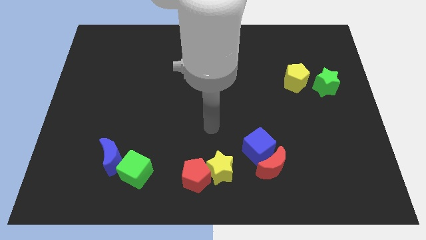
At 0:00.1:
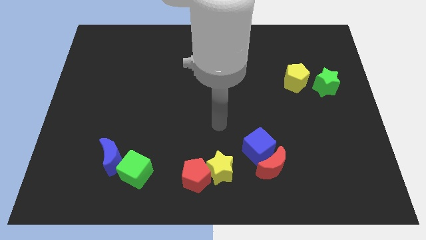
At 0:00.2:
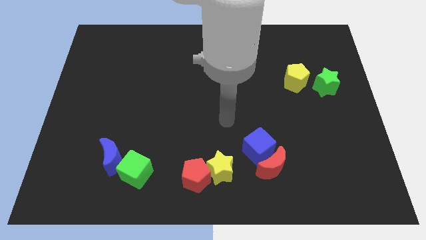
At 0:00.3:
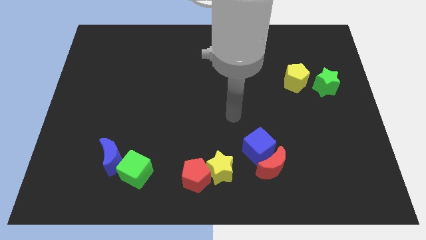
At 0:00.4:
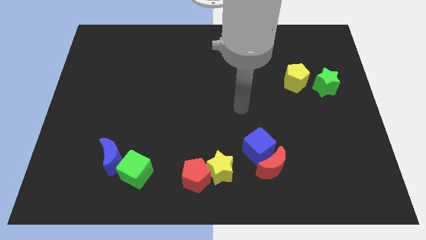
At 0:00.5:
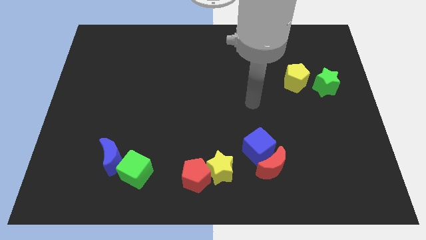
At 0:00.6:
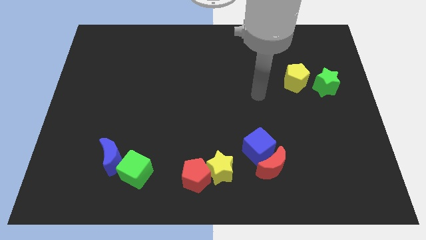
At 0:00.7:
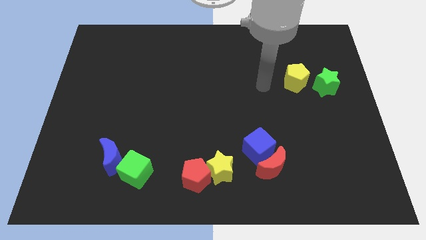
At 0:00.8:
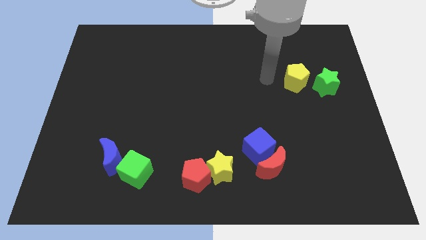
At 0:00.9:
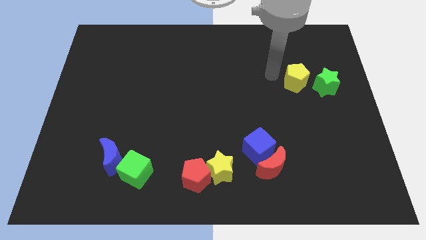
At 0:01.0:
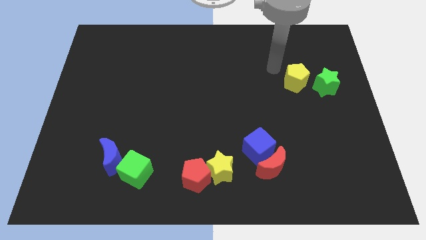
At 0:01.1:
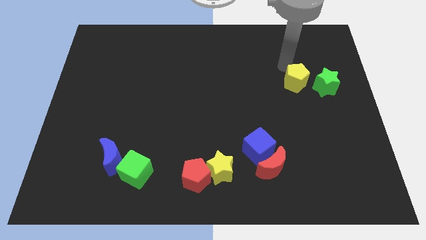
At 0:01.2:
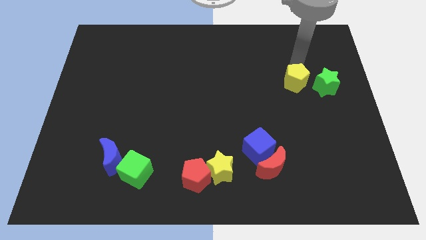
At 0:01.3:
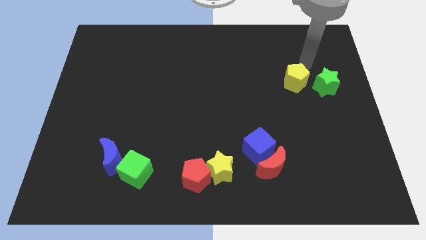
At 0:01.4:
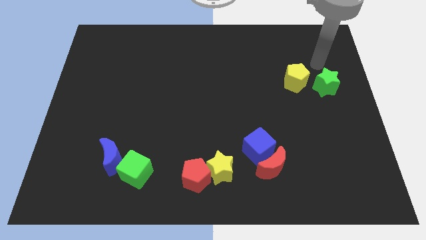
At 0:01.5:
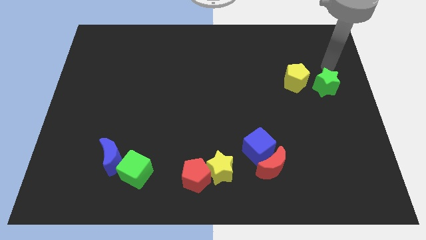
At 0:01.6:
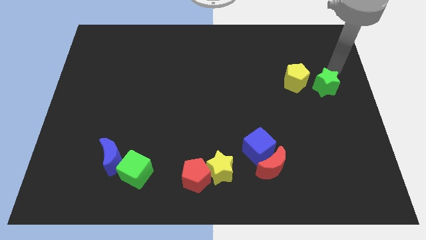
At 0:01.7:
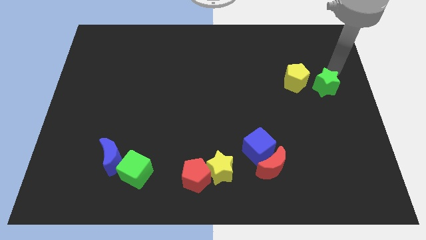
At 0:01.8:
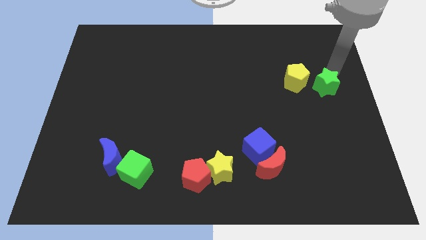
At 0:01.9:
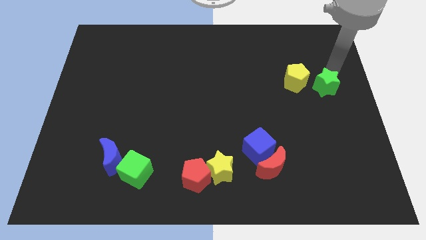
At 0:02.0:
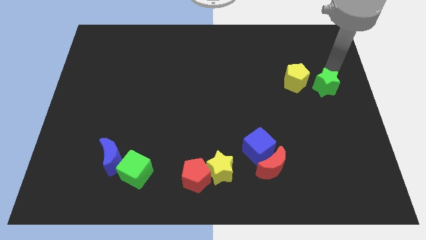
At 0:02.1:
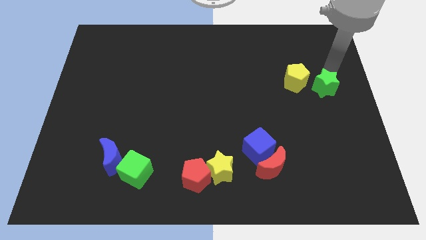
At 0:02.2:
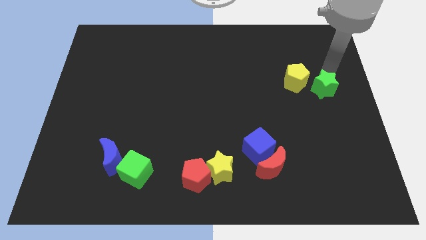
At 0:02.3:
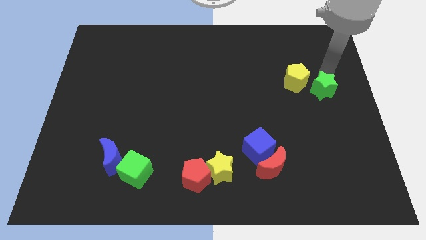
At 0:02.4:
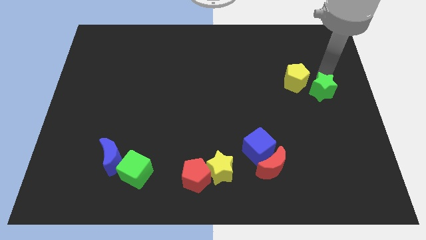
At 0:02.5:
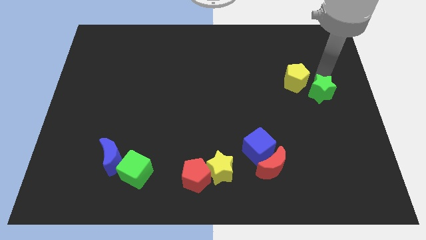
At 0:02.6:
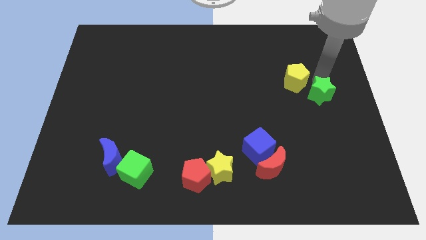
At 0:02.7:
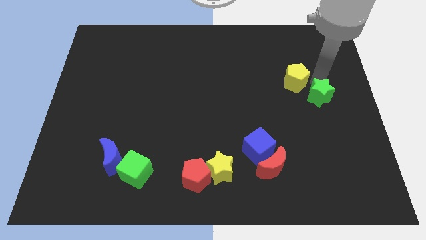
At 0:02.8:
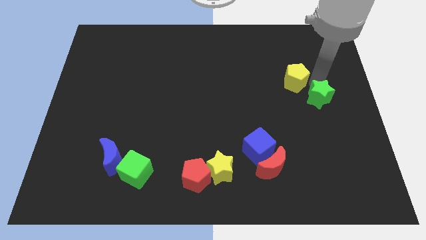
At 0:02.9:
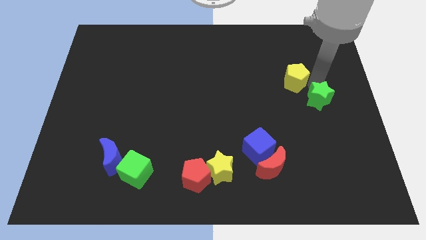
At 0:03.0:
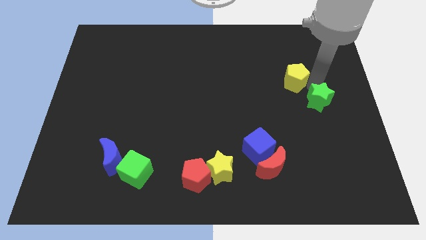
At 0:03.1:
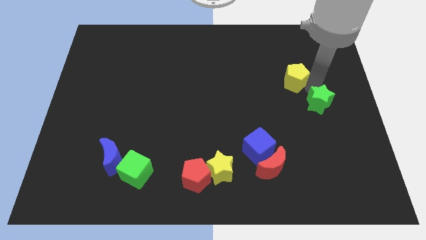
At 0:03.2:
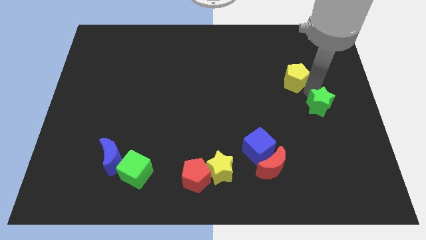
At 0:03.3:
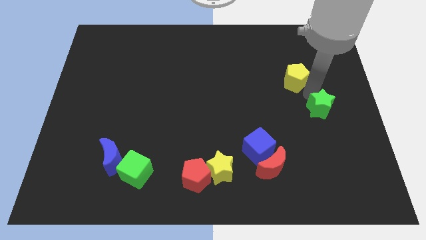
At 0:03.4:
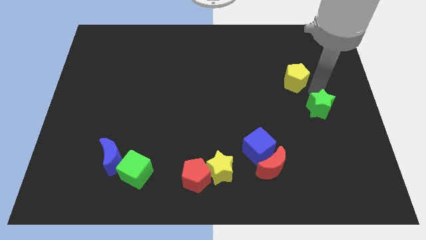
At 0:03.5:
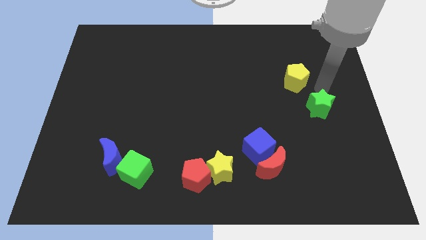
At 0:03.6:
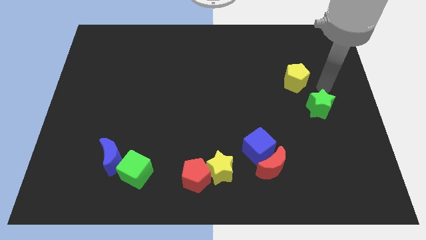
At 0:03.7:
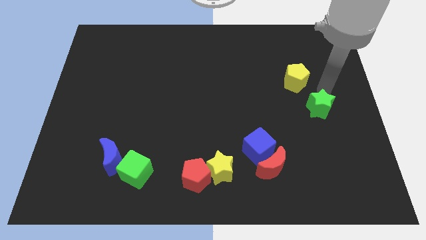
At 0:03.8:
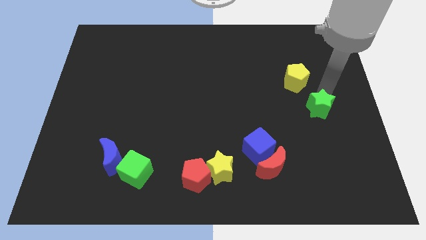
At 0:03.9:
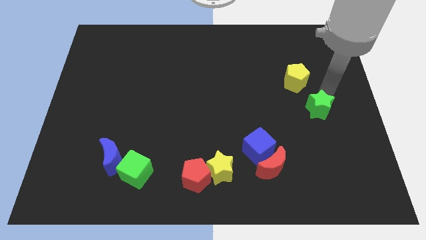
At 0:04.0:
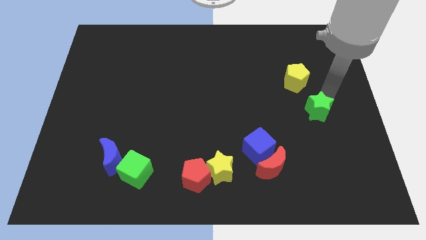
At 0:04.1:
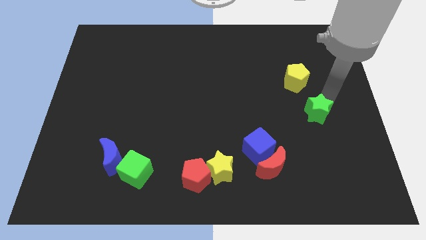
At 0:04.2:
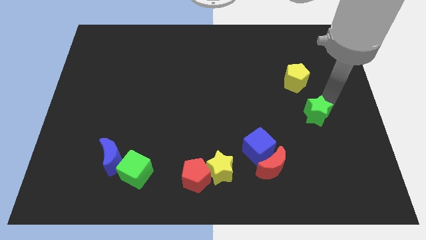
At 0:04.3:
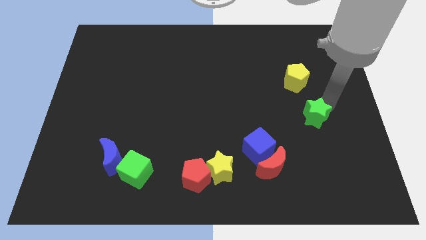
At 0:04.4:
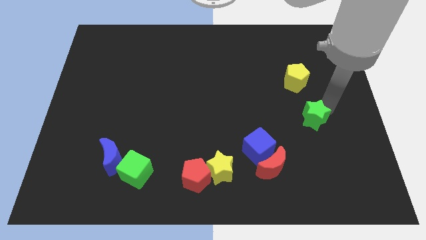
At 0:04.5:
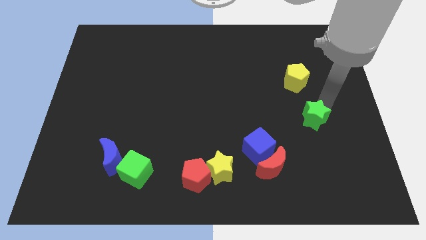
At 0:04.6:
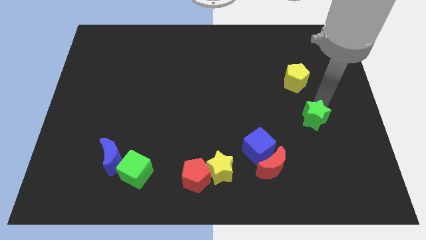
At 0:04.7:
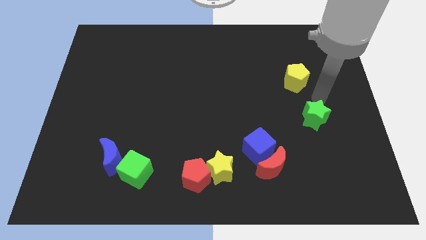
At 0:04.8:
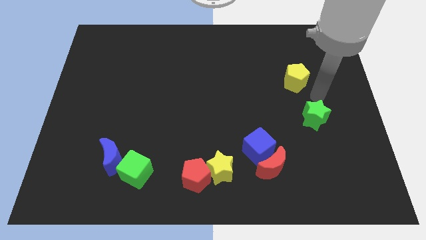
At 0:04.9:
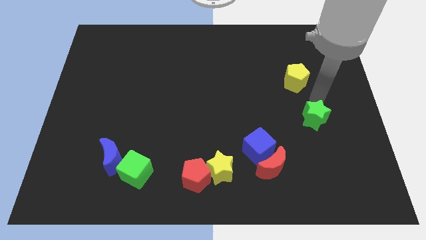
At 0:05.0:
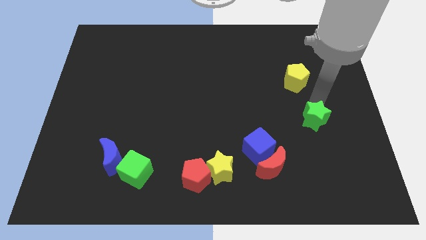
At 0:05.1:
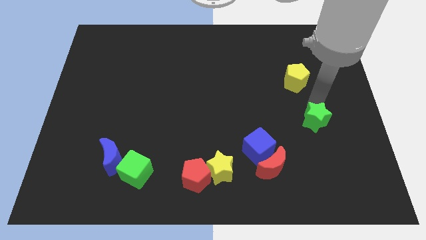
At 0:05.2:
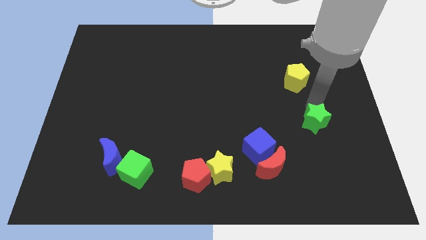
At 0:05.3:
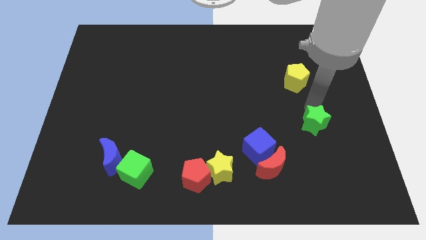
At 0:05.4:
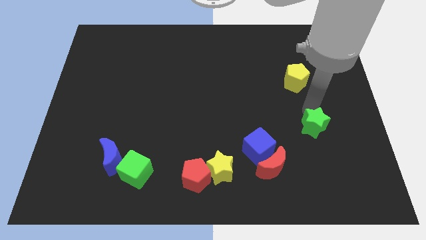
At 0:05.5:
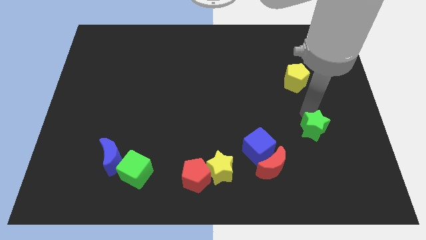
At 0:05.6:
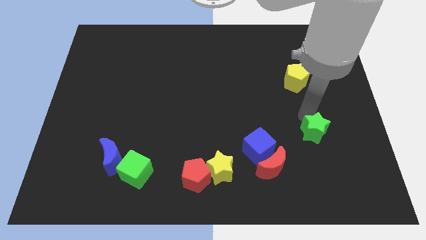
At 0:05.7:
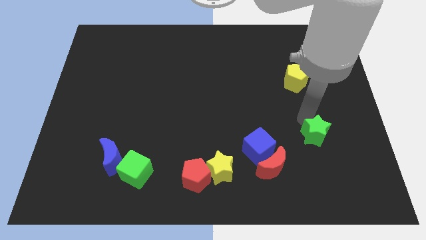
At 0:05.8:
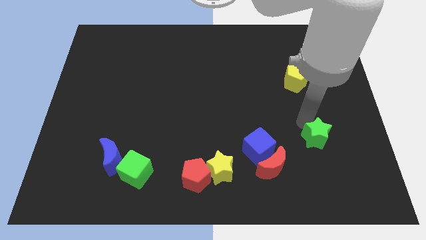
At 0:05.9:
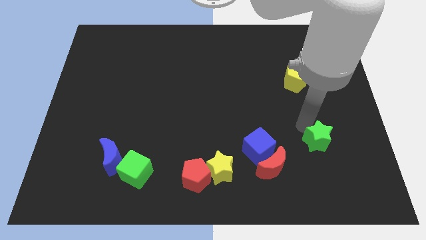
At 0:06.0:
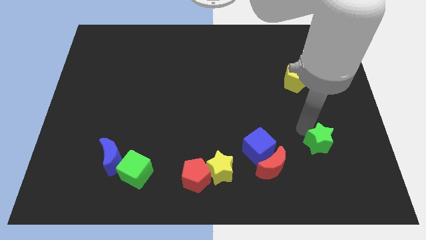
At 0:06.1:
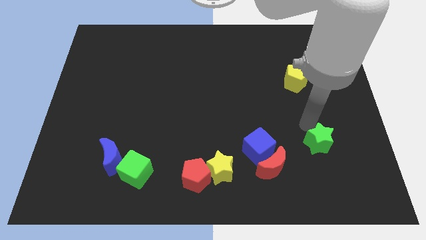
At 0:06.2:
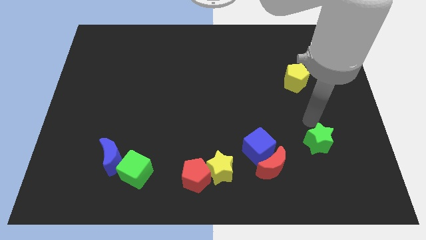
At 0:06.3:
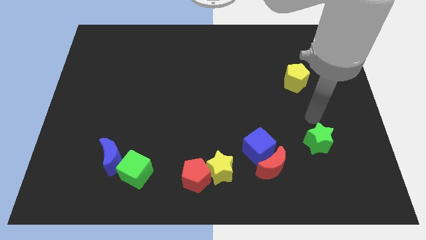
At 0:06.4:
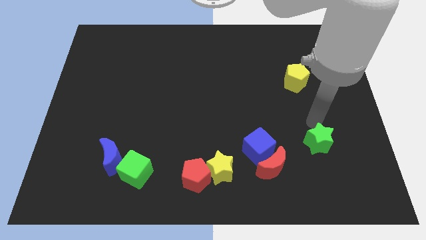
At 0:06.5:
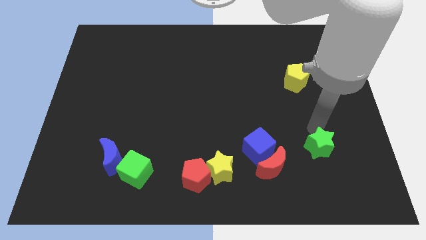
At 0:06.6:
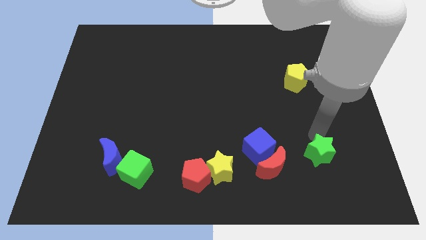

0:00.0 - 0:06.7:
put the green star to the right of the red moon
